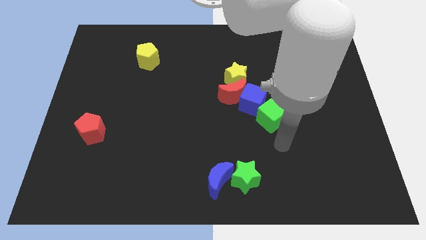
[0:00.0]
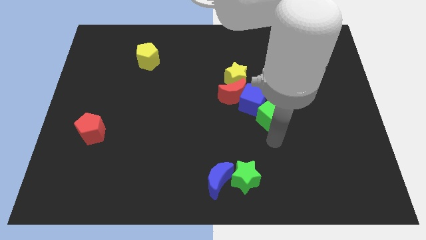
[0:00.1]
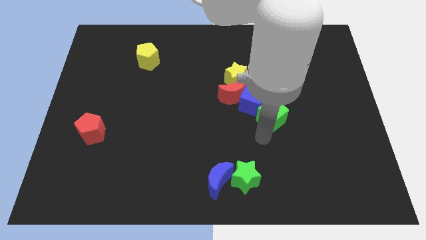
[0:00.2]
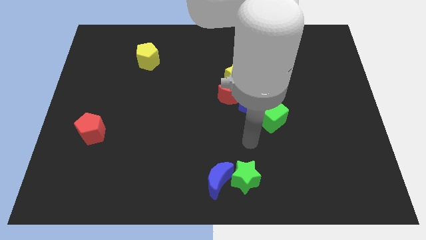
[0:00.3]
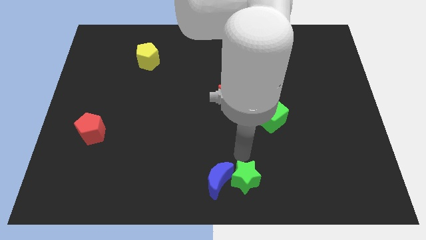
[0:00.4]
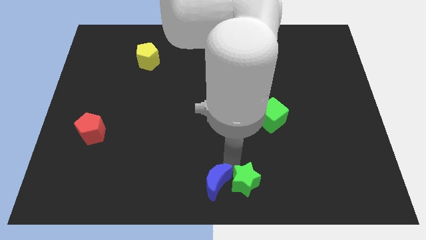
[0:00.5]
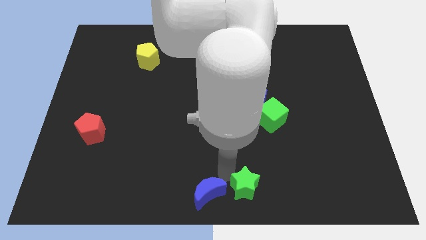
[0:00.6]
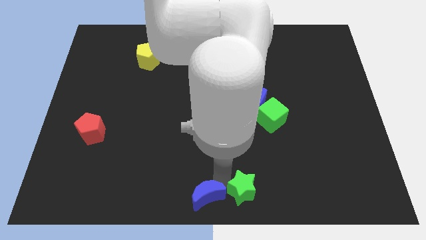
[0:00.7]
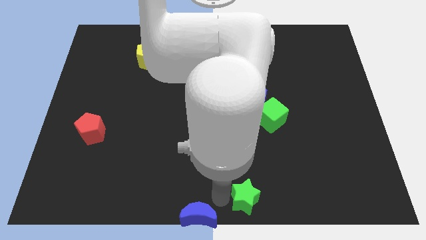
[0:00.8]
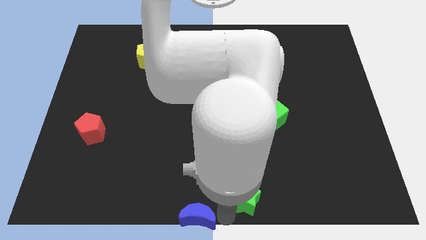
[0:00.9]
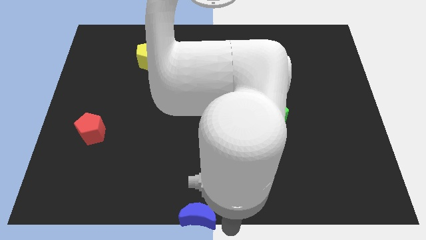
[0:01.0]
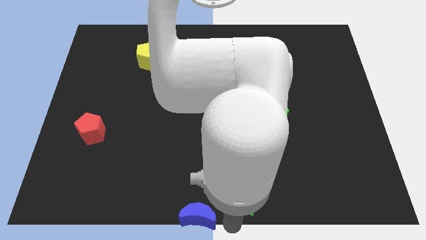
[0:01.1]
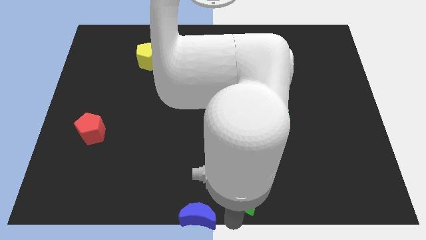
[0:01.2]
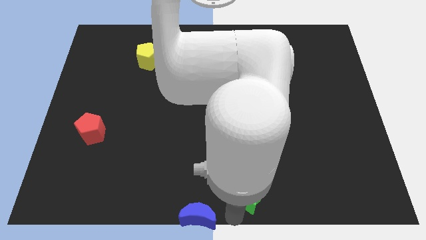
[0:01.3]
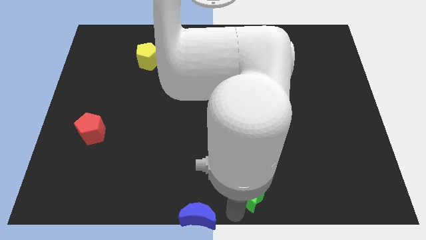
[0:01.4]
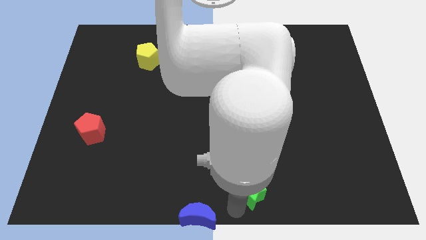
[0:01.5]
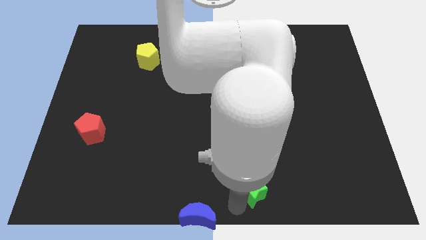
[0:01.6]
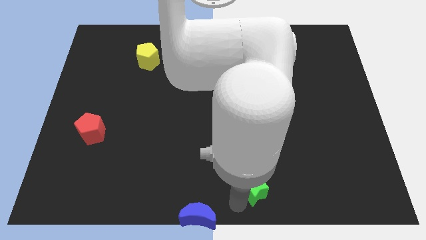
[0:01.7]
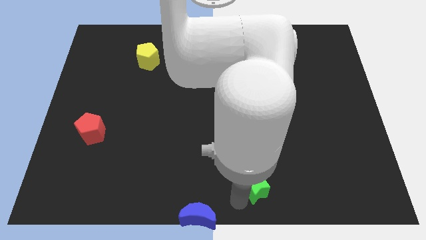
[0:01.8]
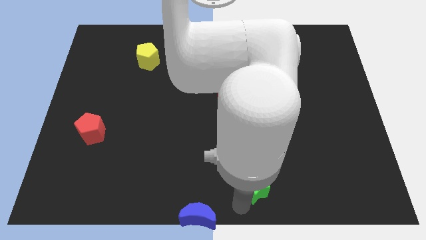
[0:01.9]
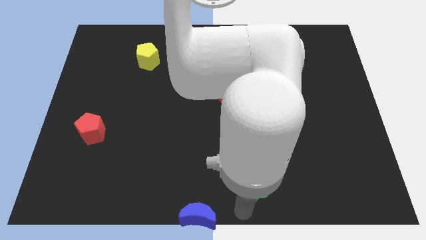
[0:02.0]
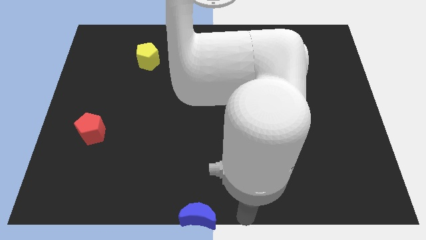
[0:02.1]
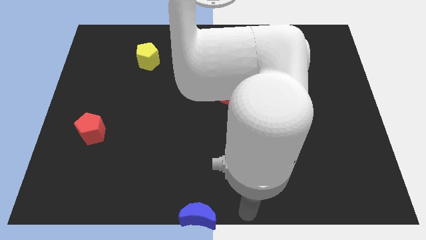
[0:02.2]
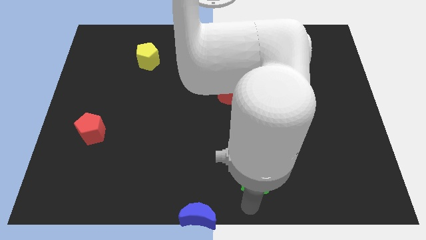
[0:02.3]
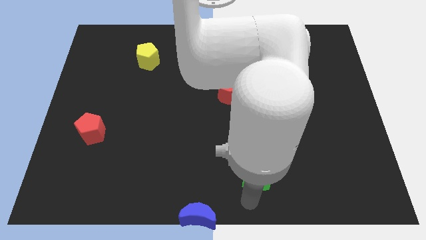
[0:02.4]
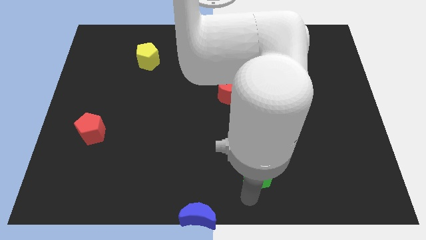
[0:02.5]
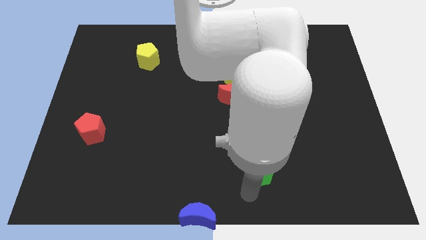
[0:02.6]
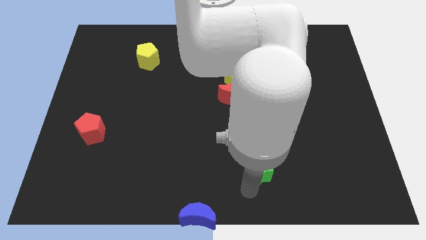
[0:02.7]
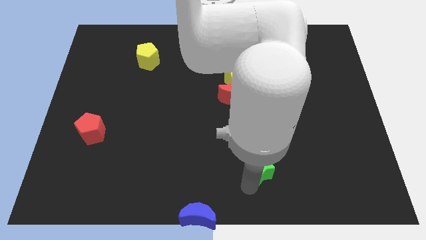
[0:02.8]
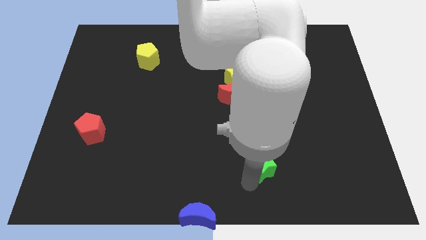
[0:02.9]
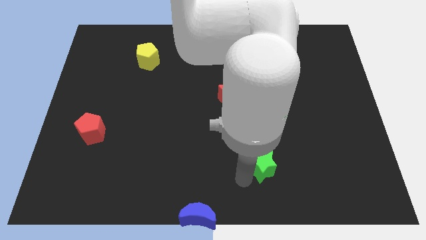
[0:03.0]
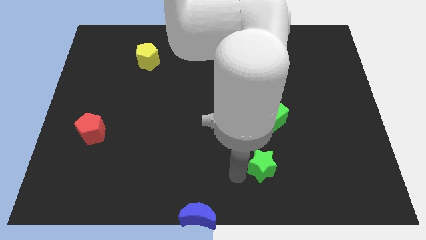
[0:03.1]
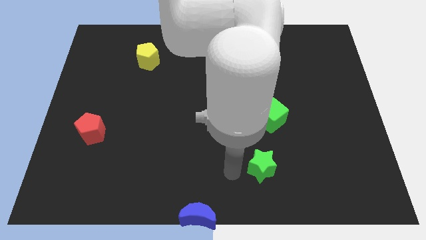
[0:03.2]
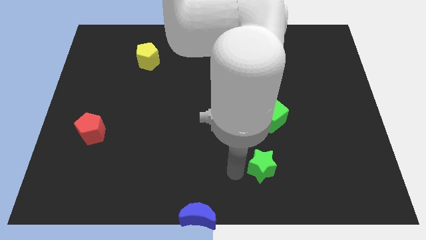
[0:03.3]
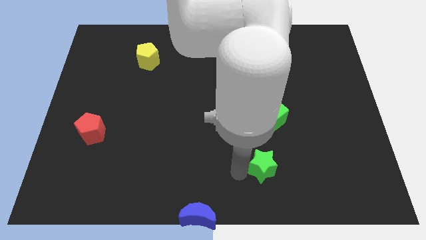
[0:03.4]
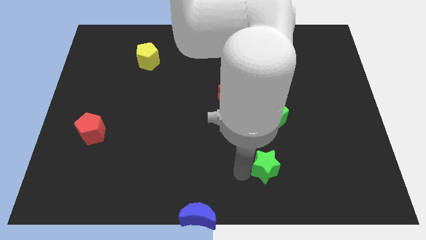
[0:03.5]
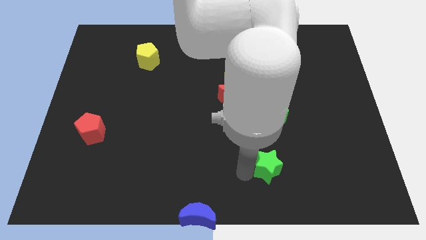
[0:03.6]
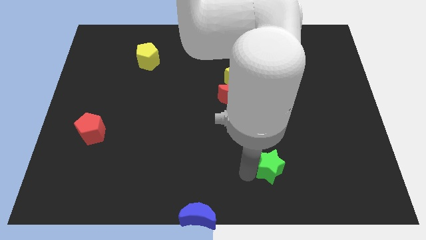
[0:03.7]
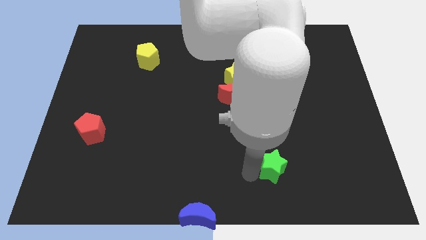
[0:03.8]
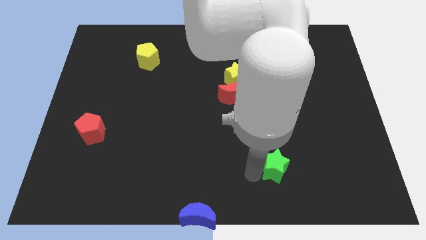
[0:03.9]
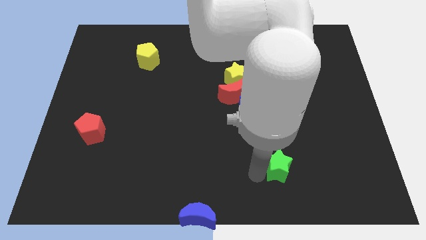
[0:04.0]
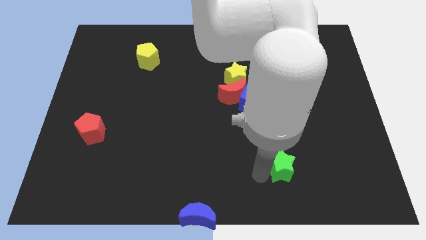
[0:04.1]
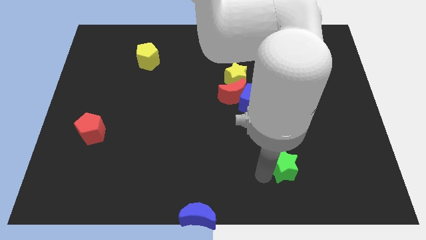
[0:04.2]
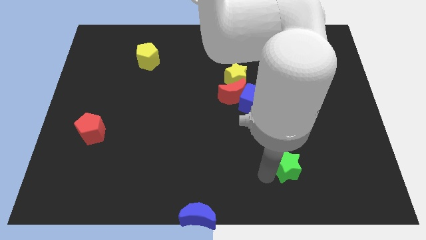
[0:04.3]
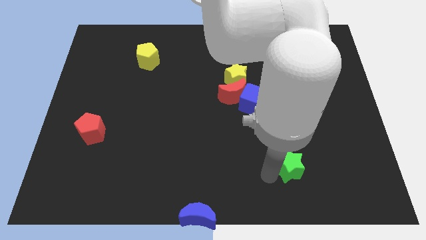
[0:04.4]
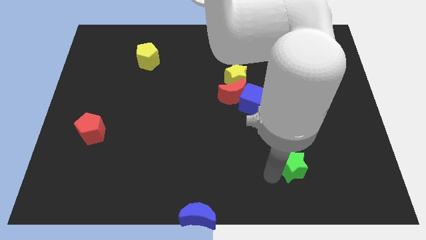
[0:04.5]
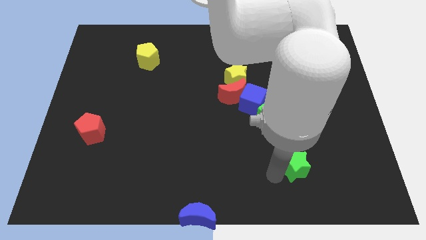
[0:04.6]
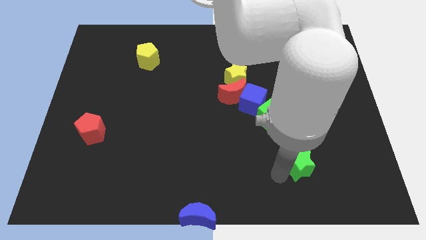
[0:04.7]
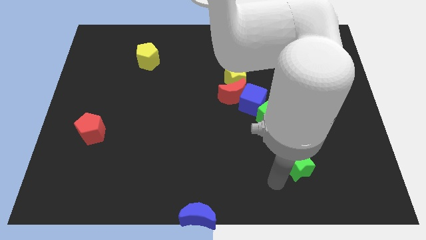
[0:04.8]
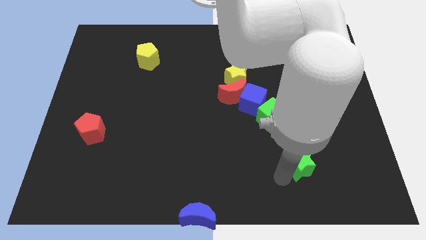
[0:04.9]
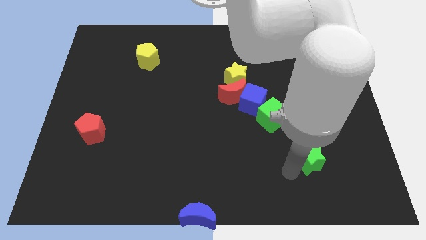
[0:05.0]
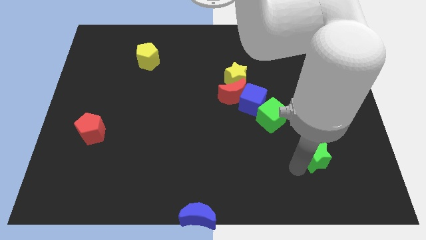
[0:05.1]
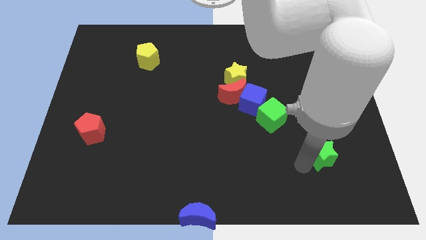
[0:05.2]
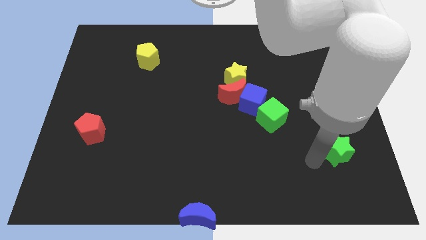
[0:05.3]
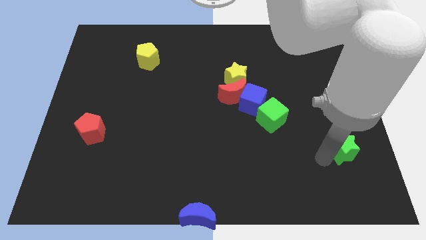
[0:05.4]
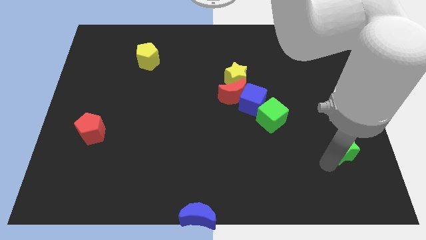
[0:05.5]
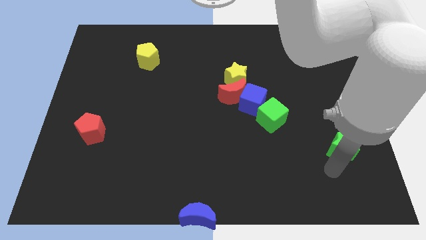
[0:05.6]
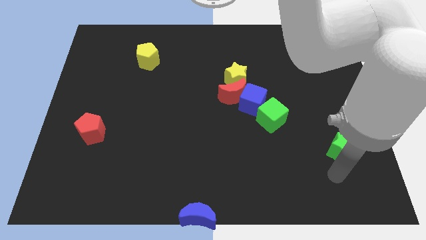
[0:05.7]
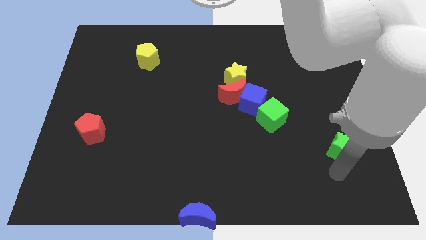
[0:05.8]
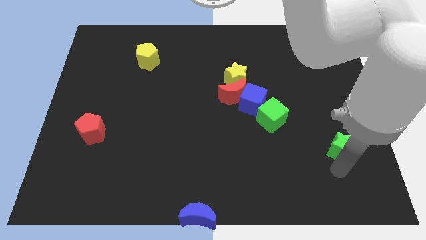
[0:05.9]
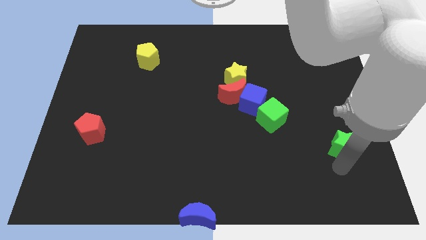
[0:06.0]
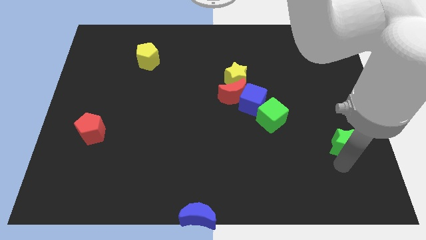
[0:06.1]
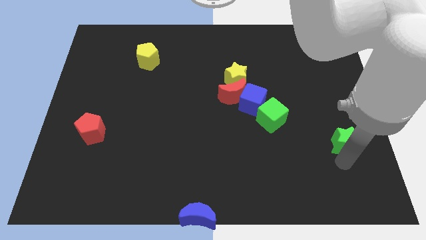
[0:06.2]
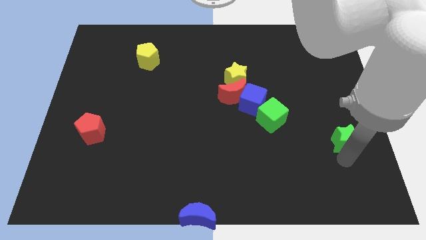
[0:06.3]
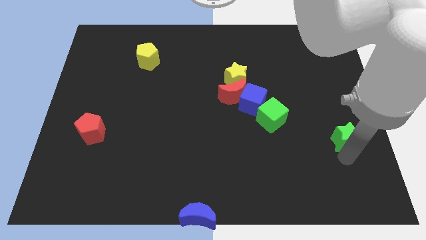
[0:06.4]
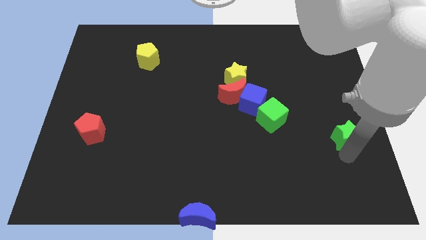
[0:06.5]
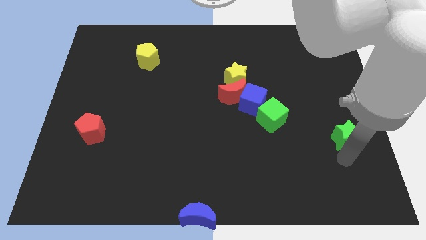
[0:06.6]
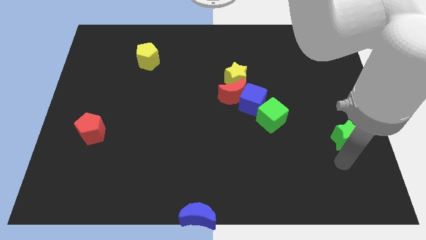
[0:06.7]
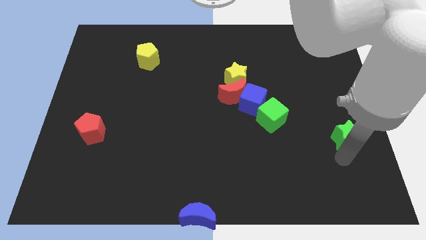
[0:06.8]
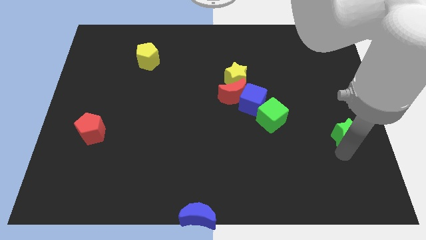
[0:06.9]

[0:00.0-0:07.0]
move the green star to the right side
